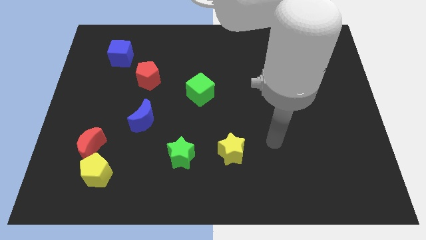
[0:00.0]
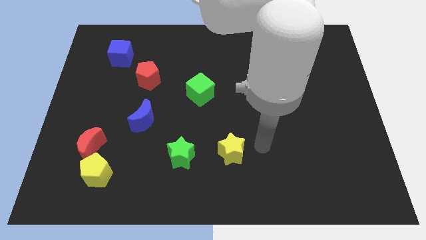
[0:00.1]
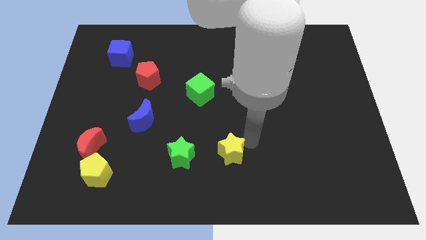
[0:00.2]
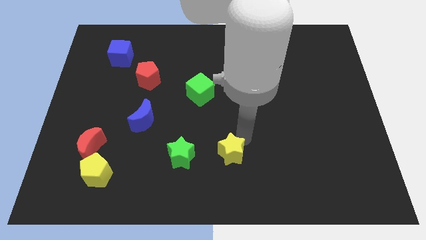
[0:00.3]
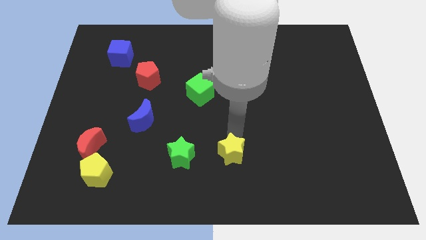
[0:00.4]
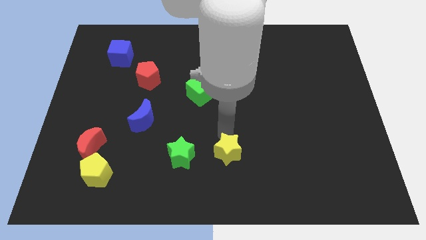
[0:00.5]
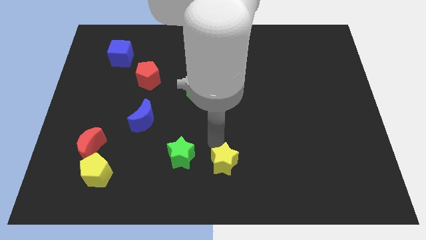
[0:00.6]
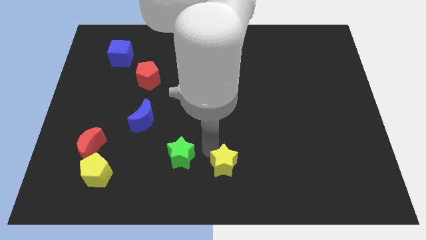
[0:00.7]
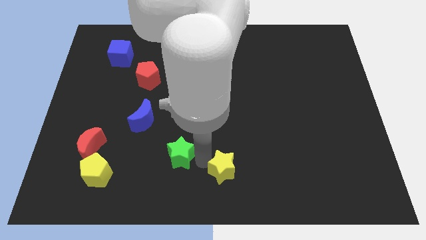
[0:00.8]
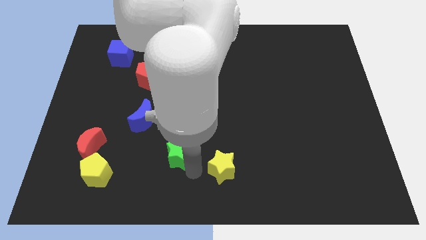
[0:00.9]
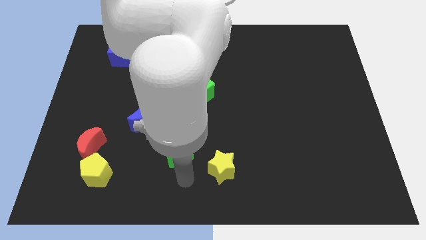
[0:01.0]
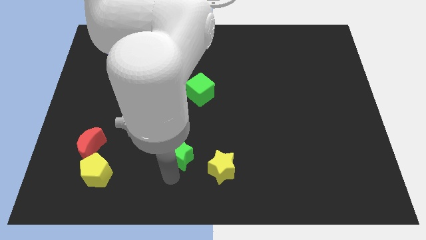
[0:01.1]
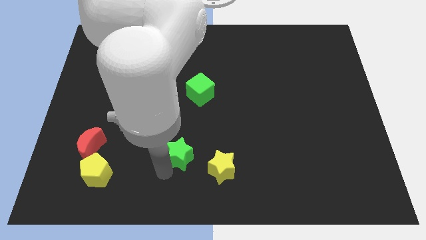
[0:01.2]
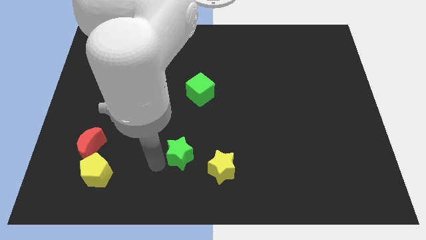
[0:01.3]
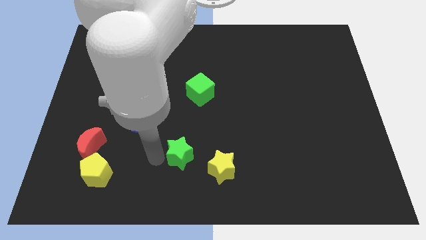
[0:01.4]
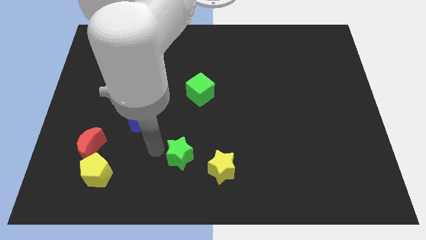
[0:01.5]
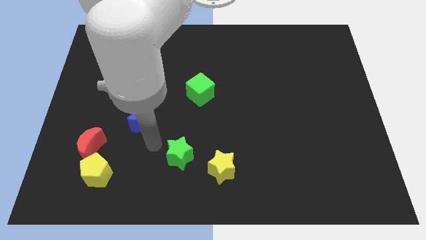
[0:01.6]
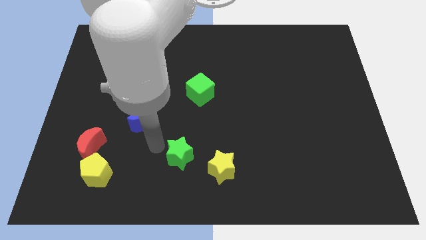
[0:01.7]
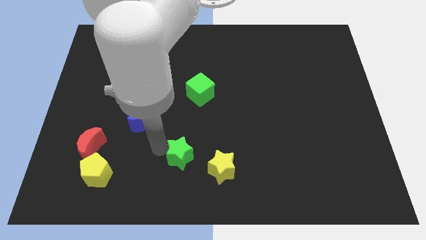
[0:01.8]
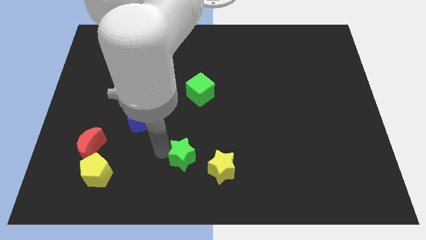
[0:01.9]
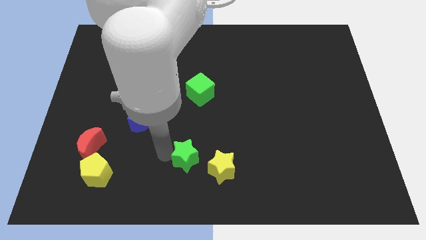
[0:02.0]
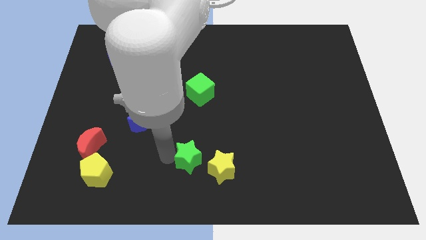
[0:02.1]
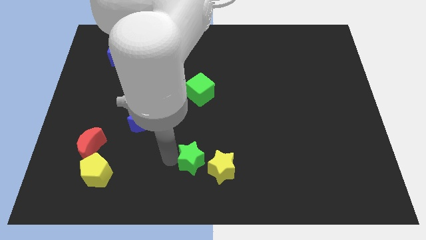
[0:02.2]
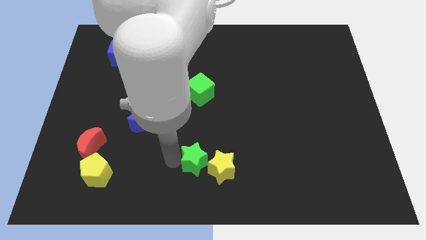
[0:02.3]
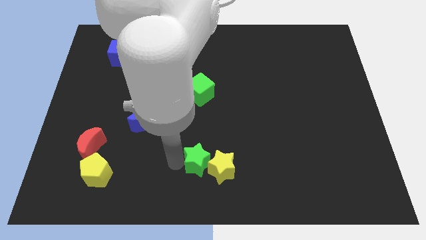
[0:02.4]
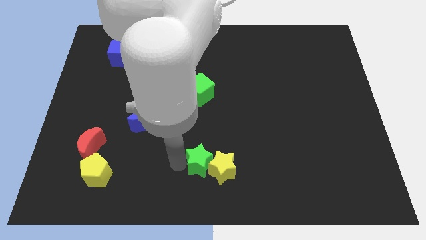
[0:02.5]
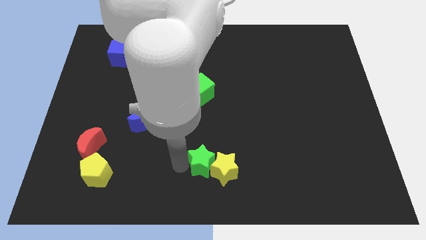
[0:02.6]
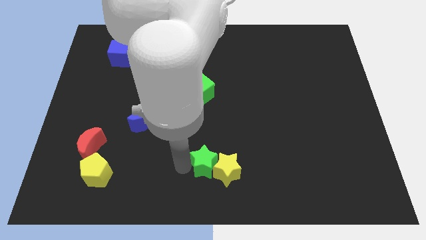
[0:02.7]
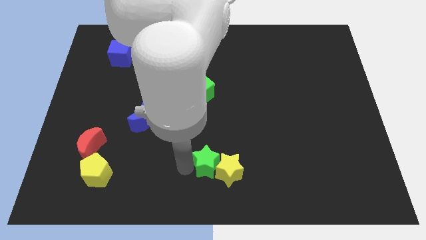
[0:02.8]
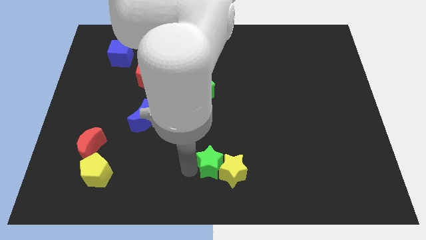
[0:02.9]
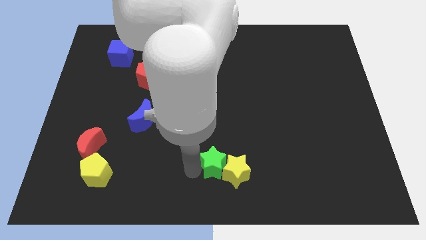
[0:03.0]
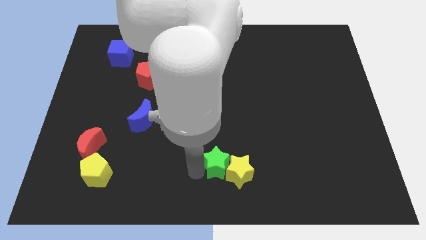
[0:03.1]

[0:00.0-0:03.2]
slightly push the green star right

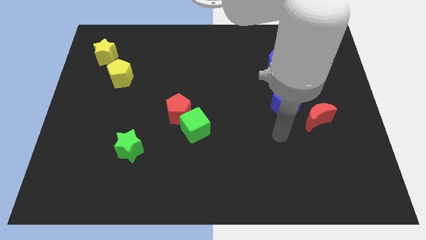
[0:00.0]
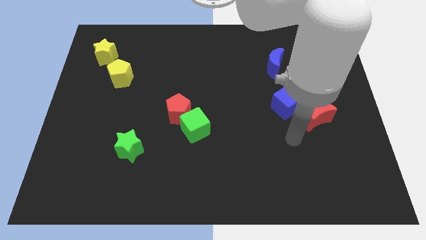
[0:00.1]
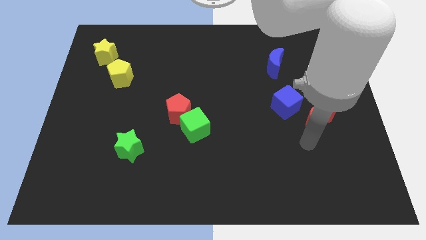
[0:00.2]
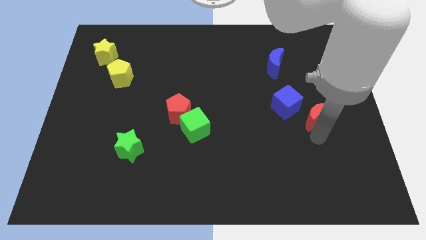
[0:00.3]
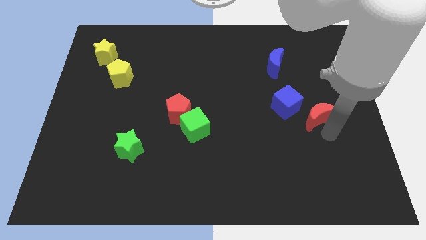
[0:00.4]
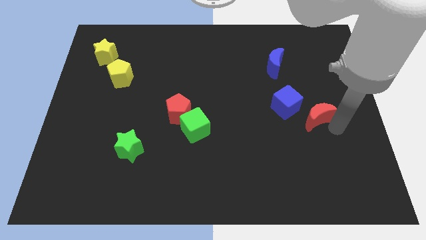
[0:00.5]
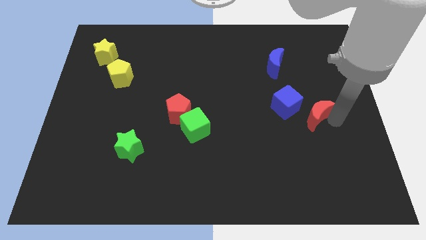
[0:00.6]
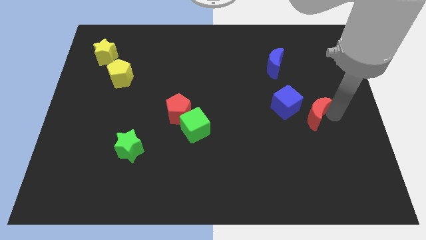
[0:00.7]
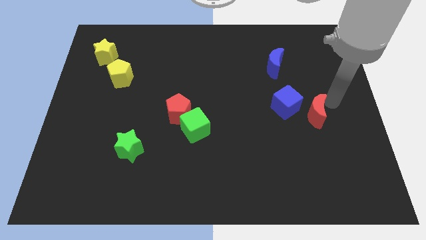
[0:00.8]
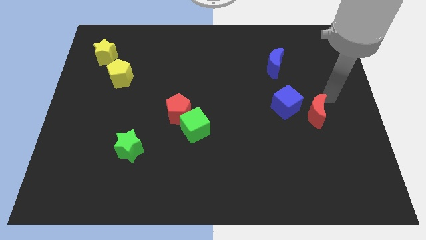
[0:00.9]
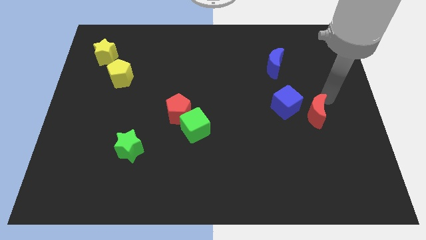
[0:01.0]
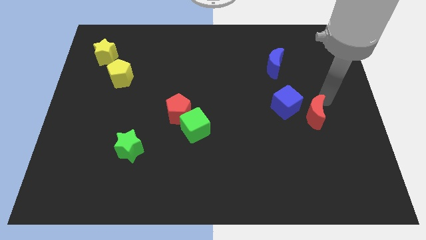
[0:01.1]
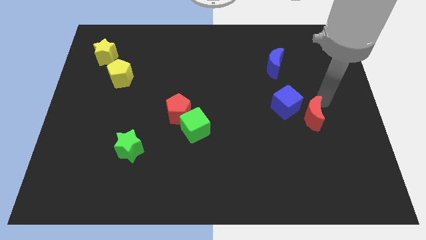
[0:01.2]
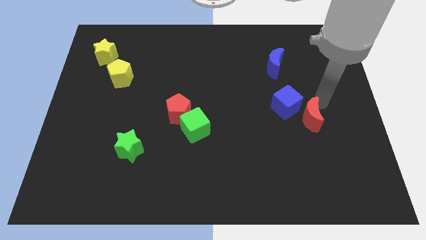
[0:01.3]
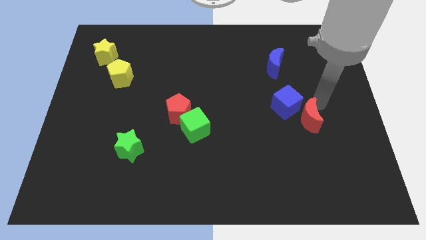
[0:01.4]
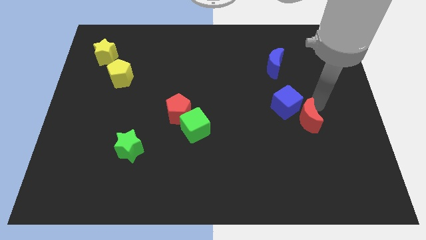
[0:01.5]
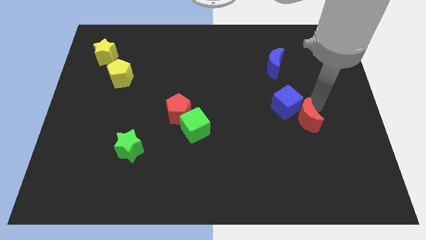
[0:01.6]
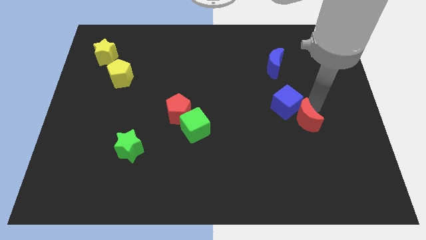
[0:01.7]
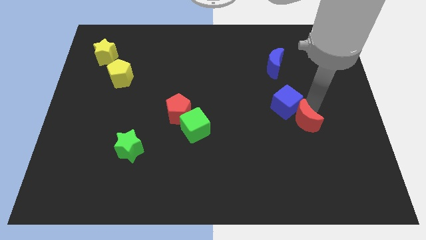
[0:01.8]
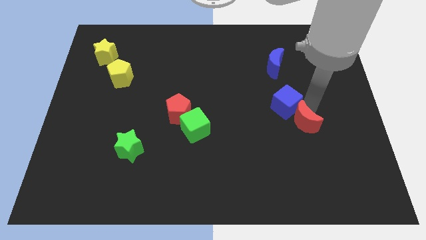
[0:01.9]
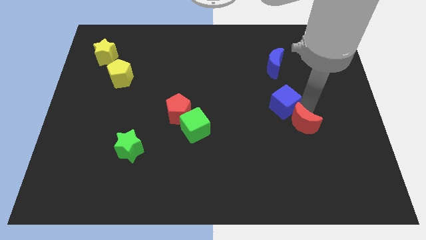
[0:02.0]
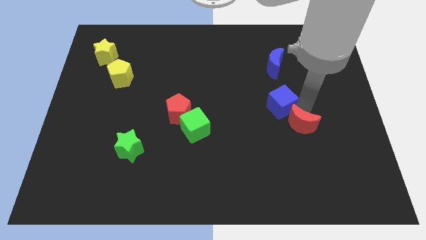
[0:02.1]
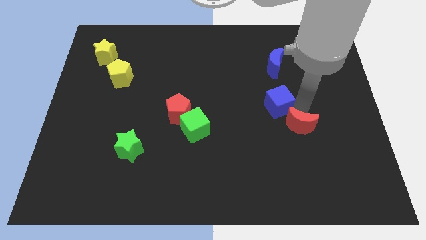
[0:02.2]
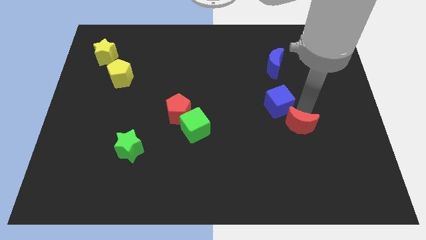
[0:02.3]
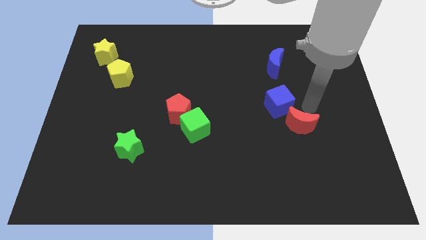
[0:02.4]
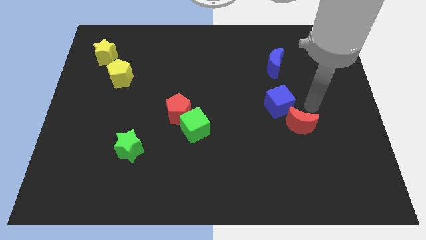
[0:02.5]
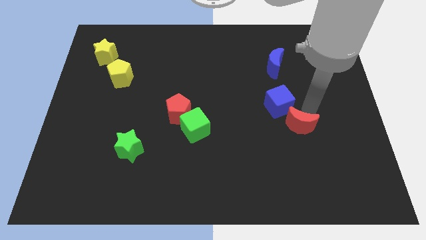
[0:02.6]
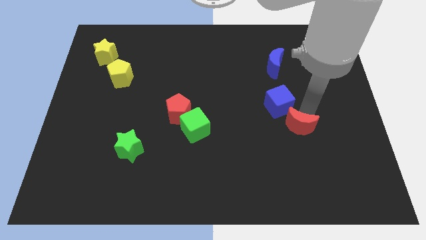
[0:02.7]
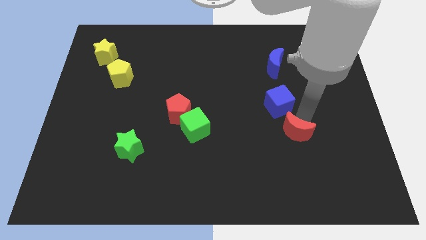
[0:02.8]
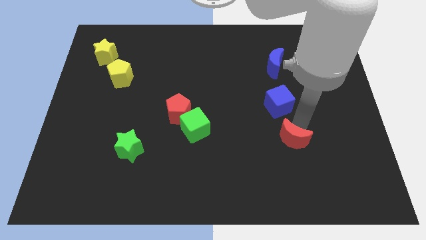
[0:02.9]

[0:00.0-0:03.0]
slide the red moon down and then to the left a little bit

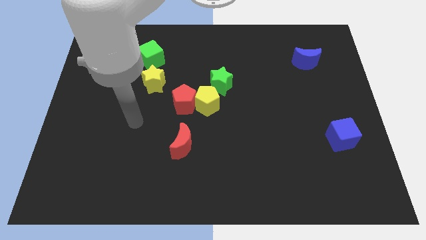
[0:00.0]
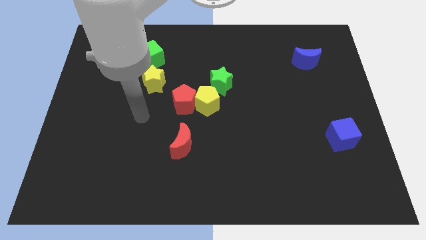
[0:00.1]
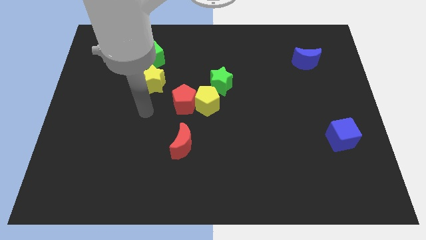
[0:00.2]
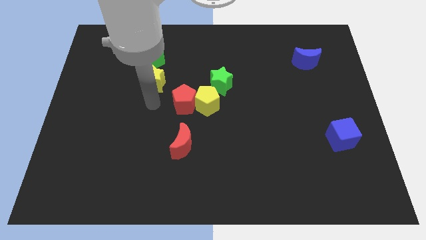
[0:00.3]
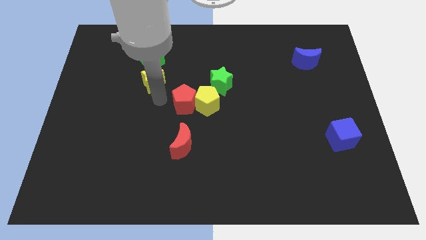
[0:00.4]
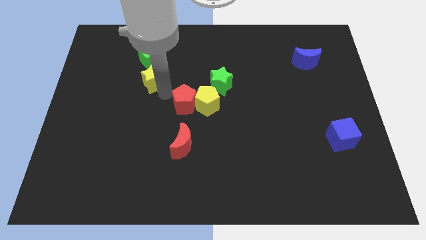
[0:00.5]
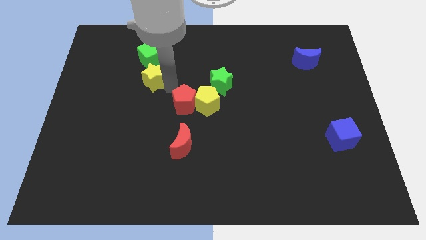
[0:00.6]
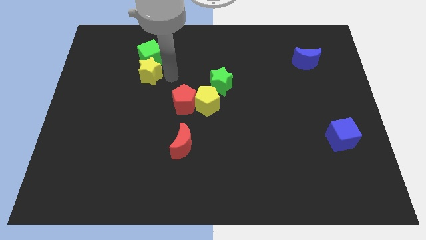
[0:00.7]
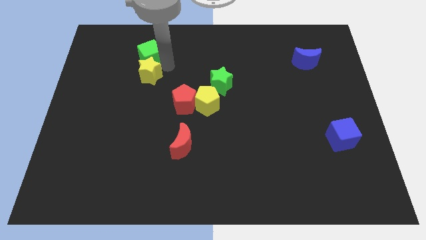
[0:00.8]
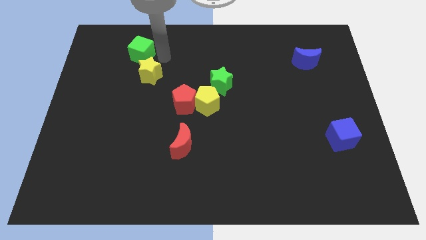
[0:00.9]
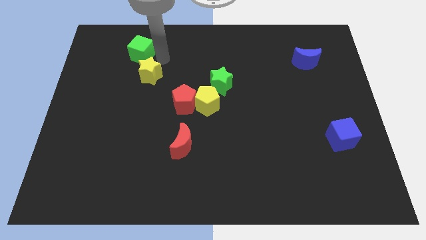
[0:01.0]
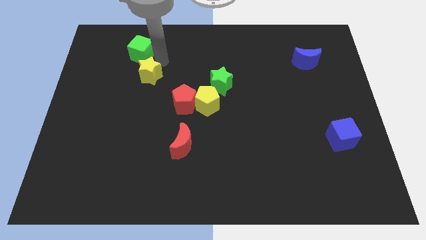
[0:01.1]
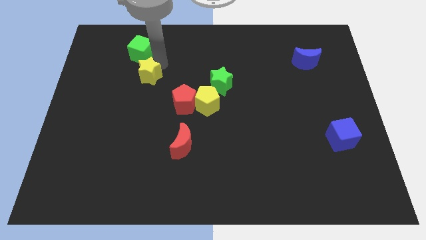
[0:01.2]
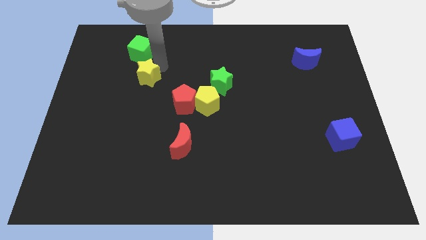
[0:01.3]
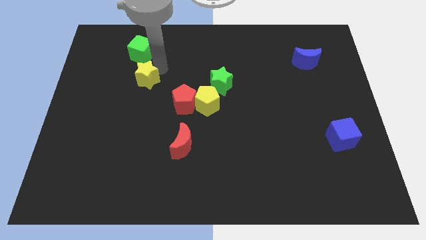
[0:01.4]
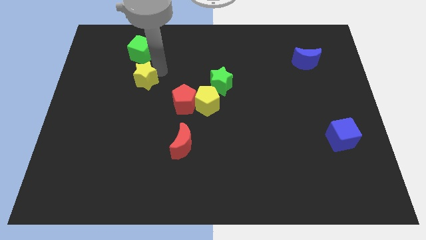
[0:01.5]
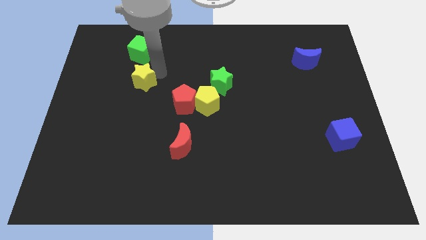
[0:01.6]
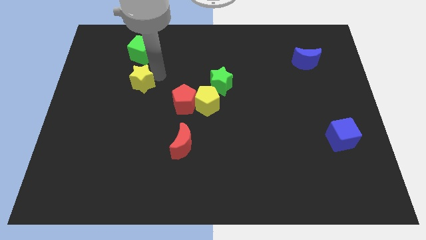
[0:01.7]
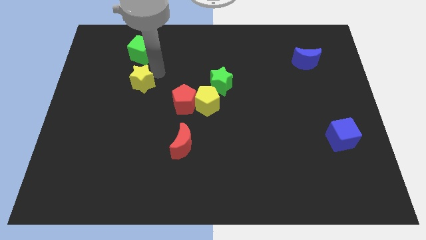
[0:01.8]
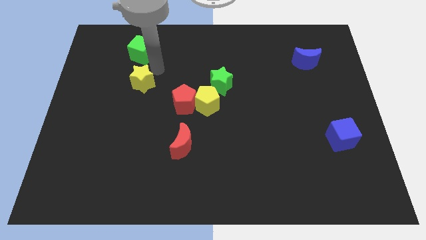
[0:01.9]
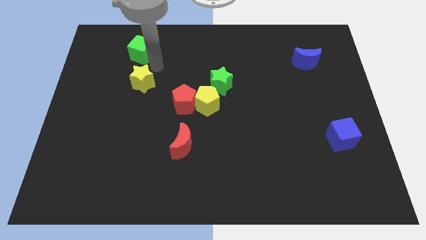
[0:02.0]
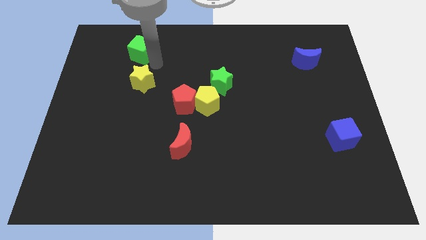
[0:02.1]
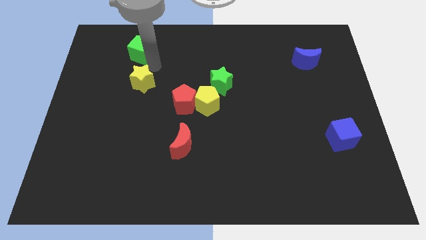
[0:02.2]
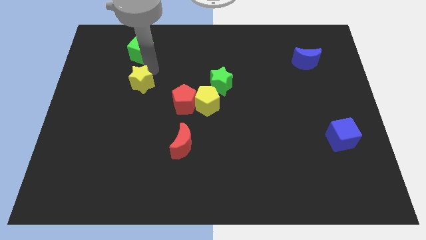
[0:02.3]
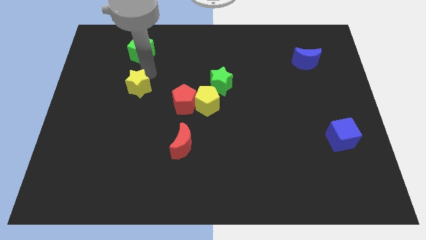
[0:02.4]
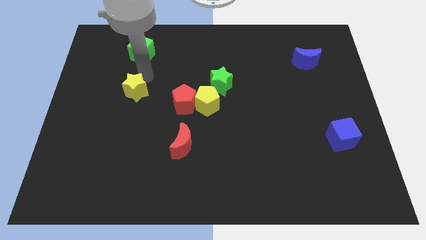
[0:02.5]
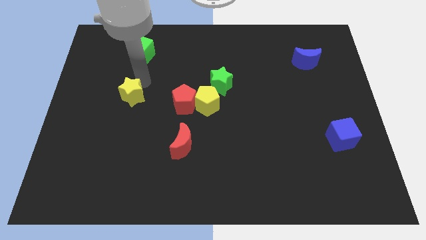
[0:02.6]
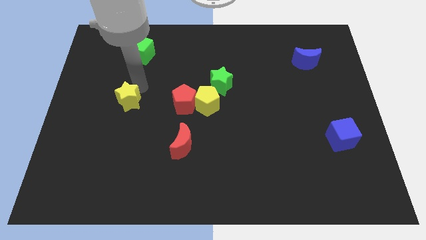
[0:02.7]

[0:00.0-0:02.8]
move the yellow star downwards and to the left diagonally a bit
